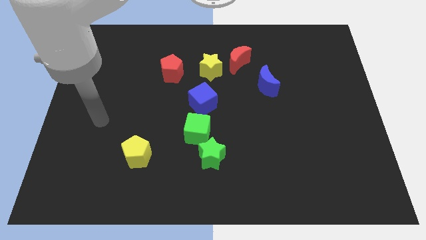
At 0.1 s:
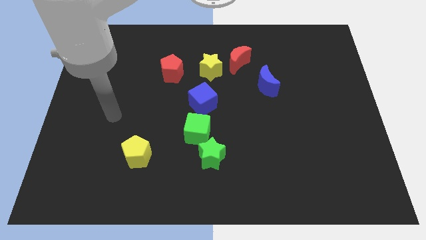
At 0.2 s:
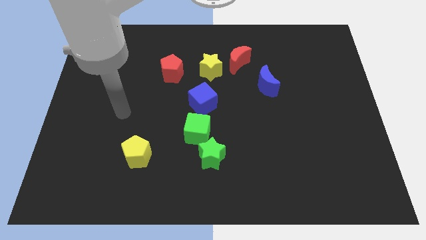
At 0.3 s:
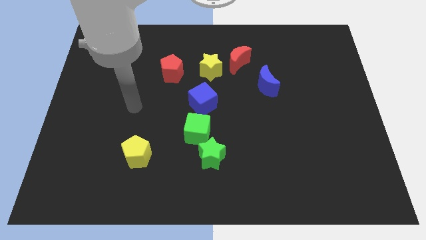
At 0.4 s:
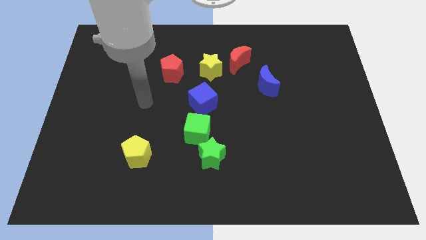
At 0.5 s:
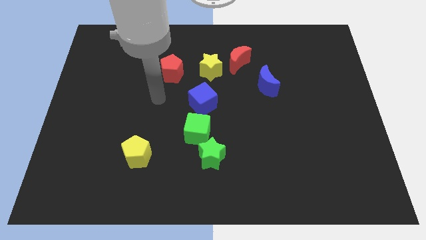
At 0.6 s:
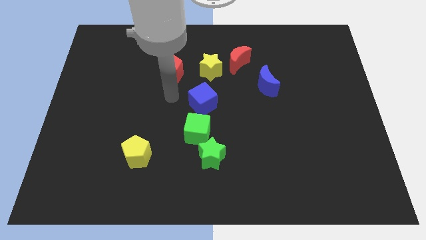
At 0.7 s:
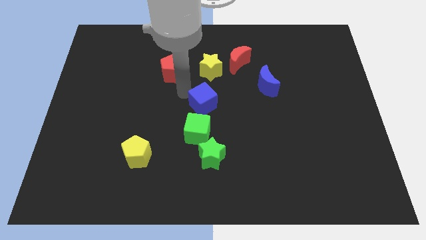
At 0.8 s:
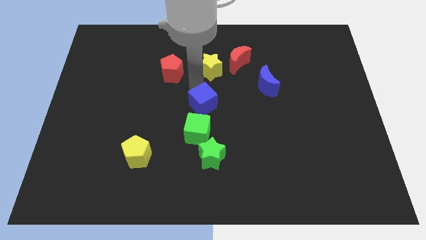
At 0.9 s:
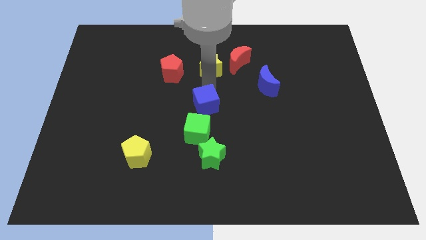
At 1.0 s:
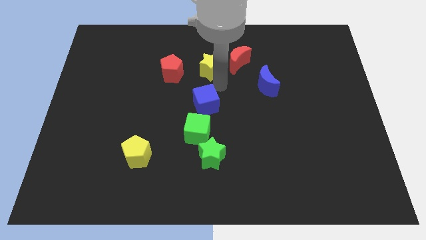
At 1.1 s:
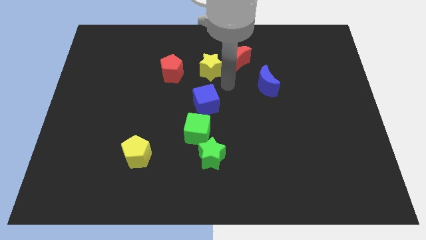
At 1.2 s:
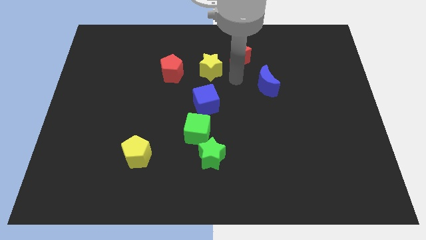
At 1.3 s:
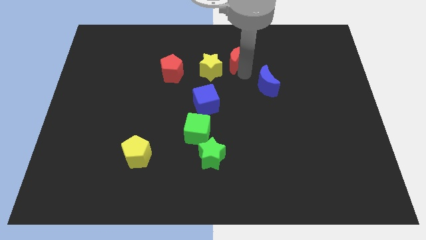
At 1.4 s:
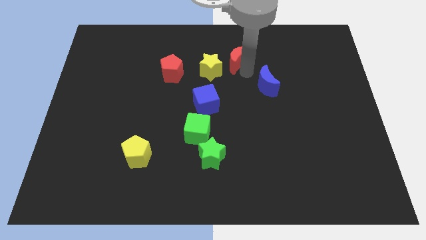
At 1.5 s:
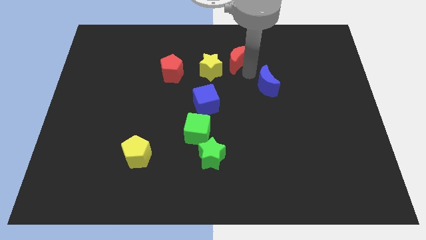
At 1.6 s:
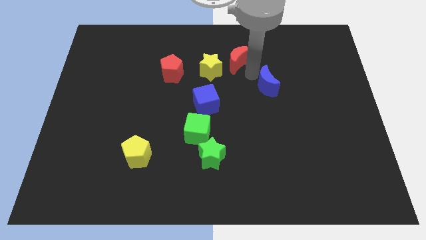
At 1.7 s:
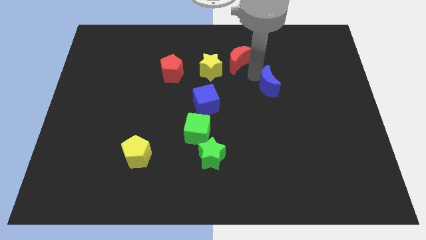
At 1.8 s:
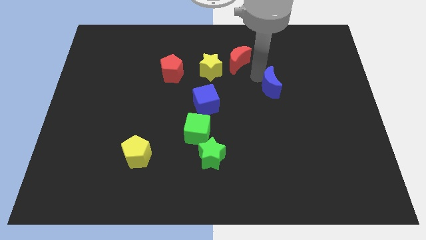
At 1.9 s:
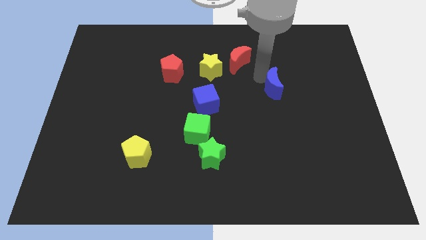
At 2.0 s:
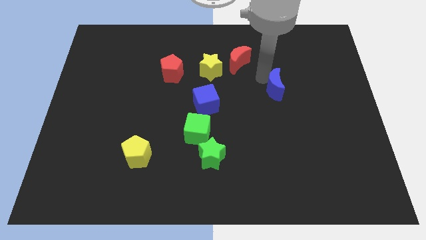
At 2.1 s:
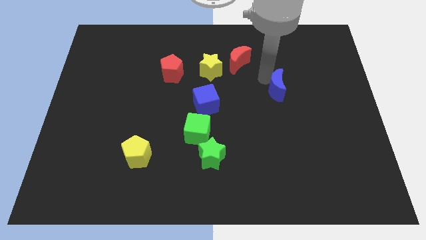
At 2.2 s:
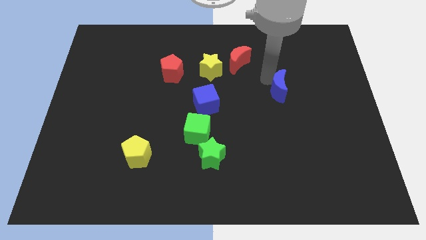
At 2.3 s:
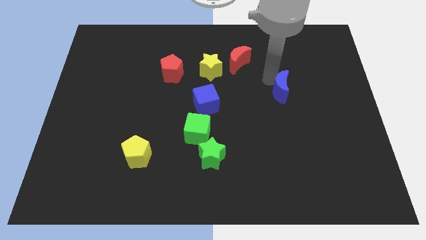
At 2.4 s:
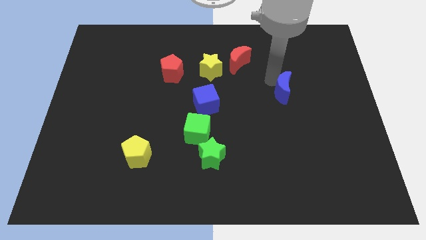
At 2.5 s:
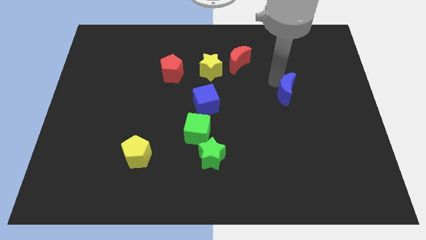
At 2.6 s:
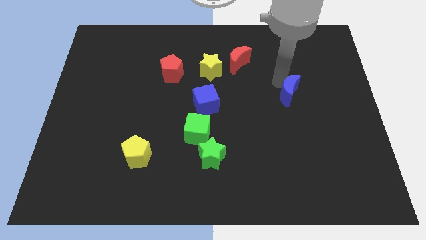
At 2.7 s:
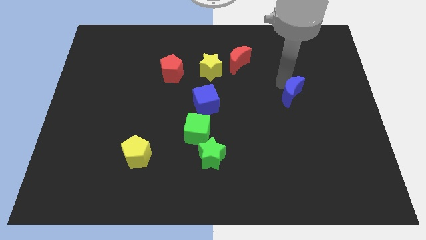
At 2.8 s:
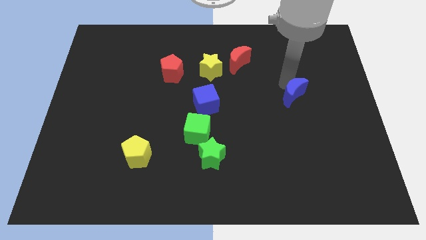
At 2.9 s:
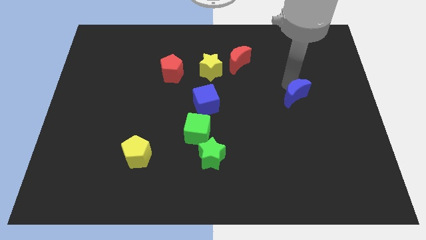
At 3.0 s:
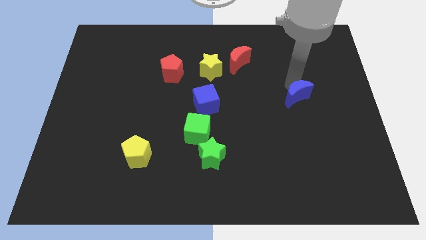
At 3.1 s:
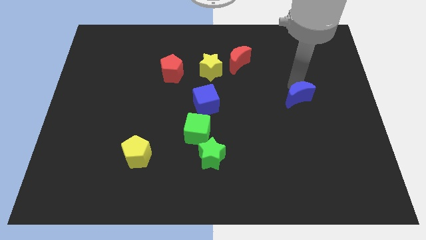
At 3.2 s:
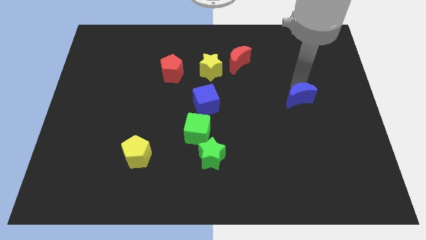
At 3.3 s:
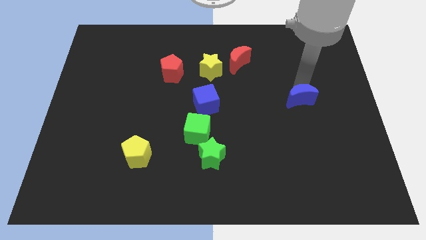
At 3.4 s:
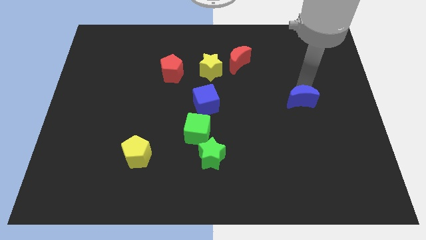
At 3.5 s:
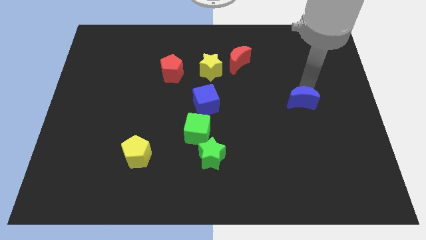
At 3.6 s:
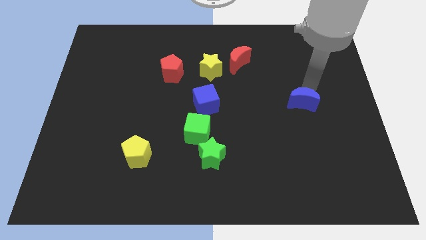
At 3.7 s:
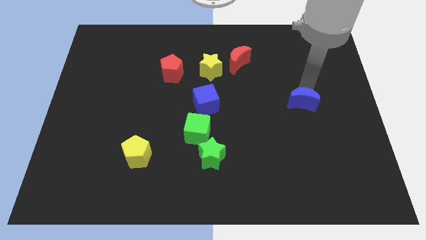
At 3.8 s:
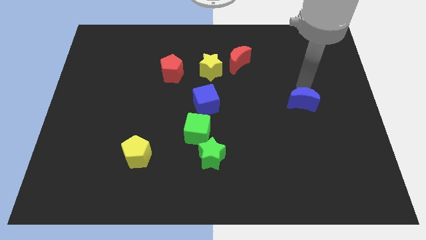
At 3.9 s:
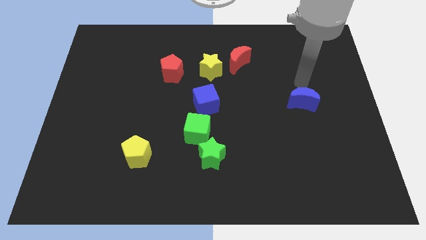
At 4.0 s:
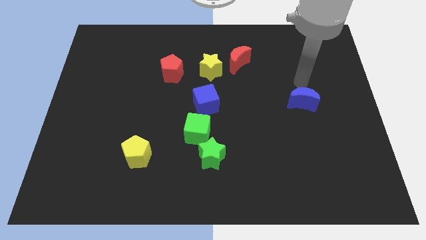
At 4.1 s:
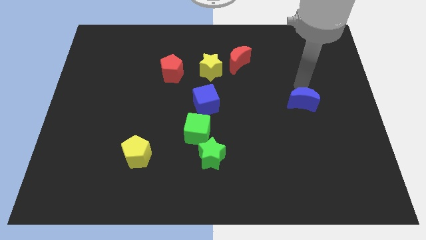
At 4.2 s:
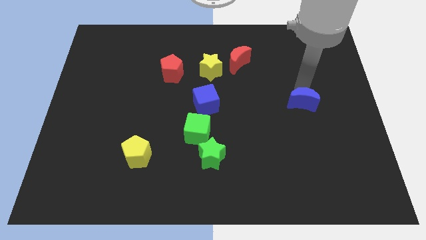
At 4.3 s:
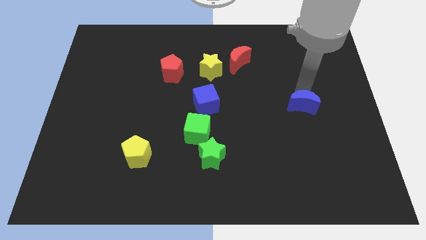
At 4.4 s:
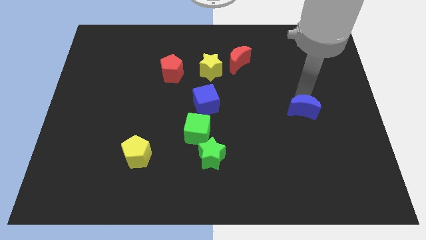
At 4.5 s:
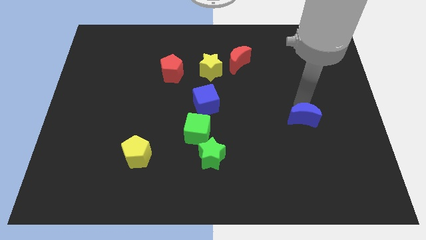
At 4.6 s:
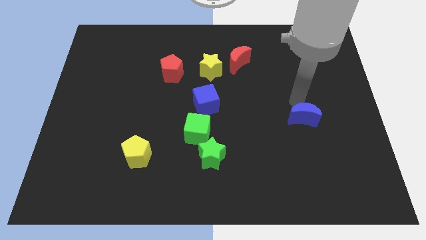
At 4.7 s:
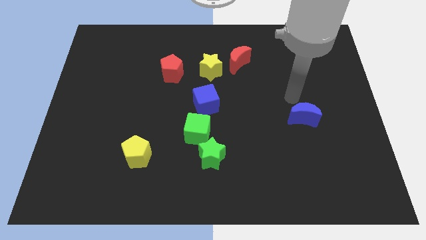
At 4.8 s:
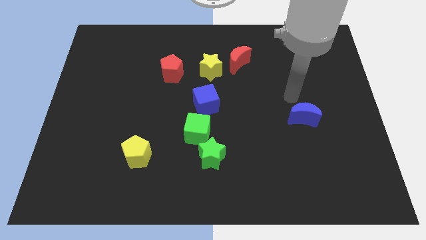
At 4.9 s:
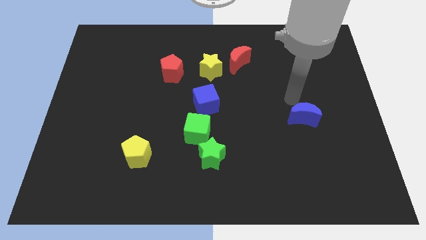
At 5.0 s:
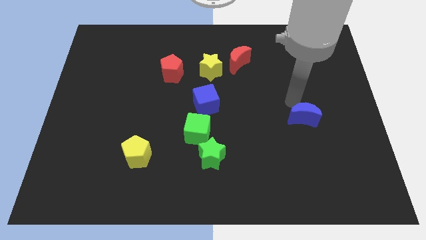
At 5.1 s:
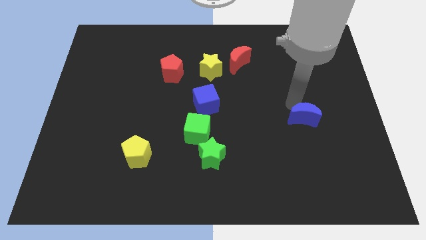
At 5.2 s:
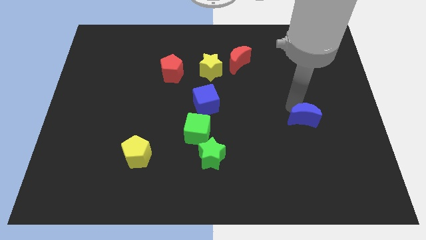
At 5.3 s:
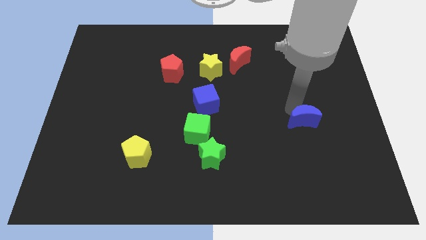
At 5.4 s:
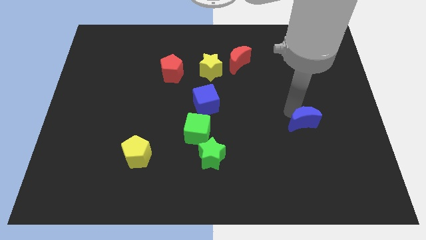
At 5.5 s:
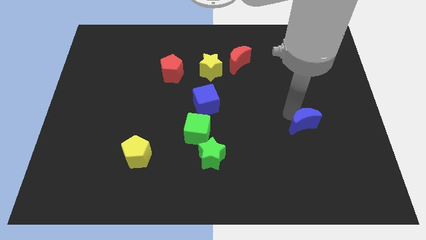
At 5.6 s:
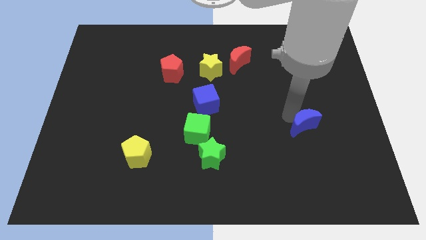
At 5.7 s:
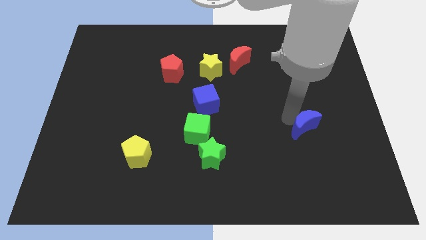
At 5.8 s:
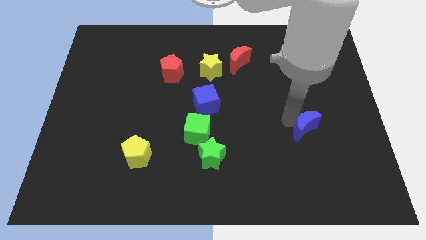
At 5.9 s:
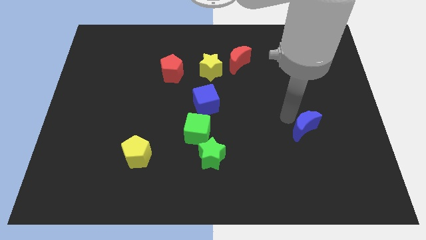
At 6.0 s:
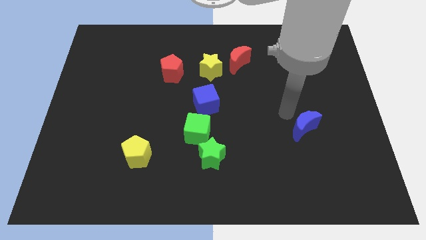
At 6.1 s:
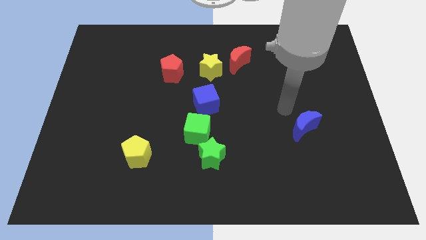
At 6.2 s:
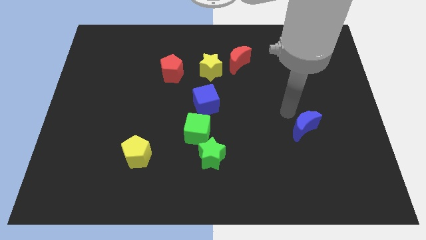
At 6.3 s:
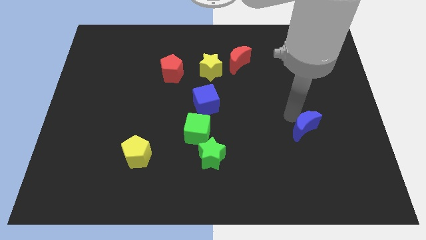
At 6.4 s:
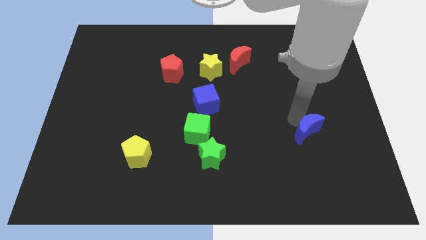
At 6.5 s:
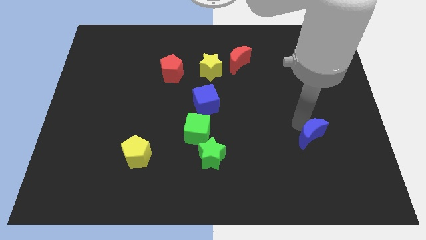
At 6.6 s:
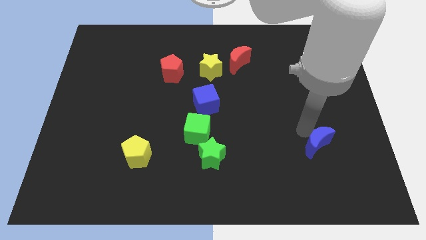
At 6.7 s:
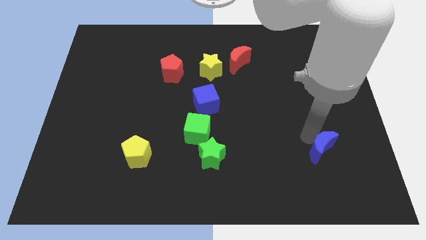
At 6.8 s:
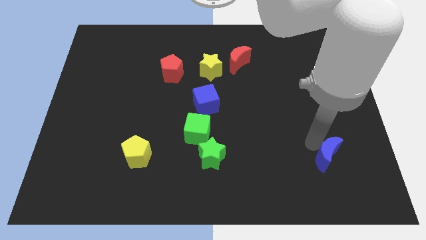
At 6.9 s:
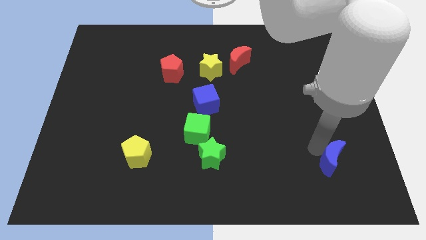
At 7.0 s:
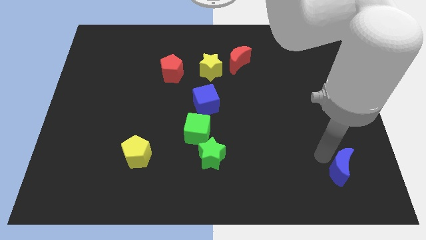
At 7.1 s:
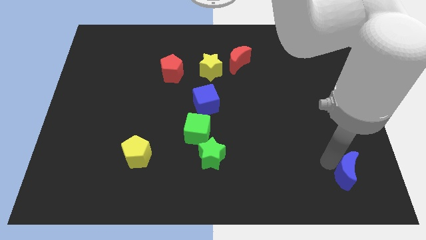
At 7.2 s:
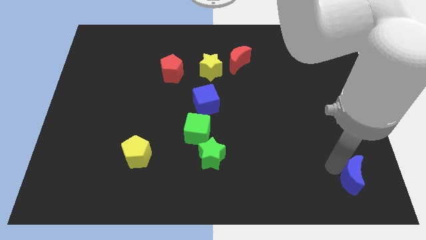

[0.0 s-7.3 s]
slide the blue moon to the bottom right

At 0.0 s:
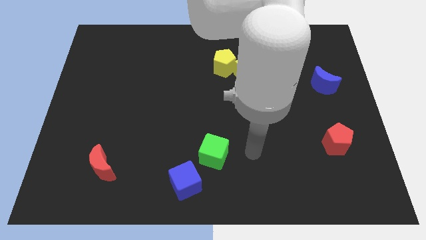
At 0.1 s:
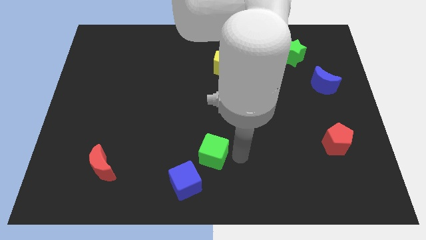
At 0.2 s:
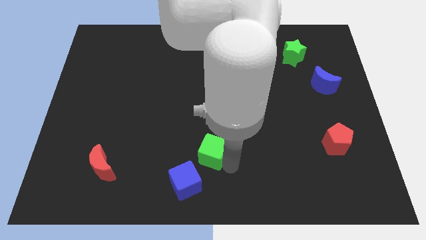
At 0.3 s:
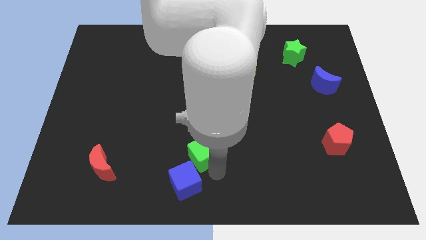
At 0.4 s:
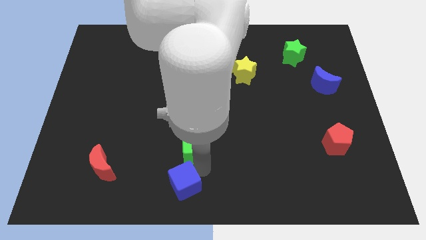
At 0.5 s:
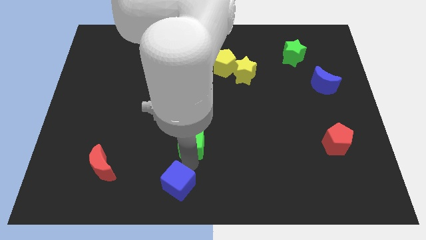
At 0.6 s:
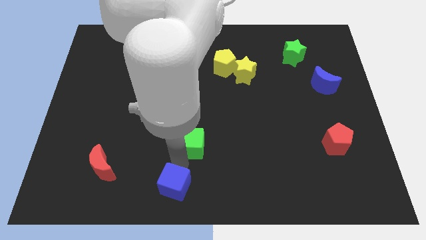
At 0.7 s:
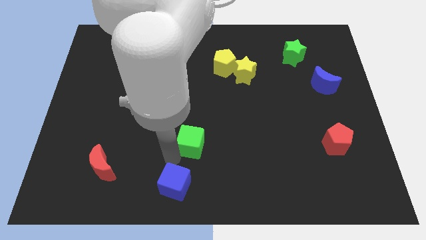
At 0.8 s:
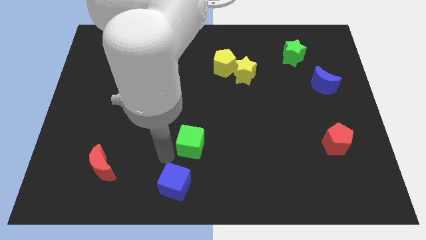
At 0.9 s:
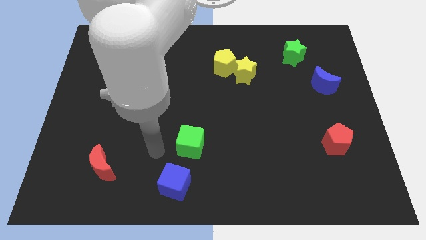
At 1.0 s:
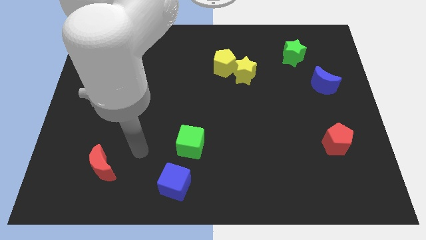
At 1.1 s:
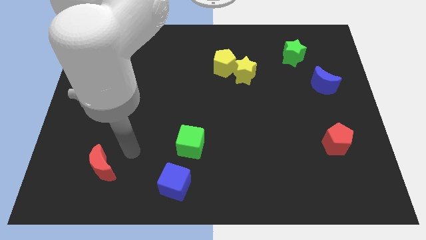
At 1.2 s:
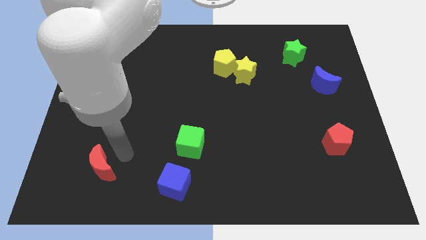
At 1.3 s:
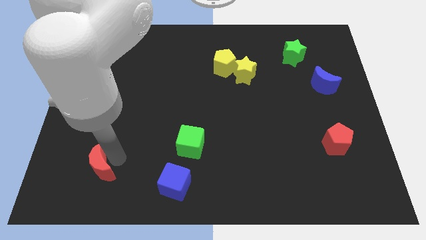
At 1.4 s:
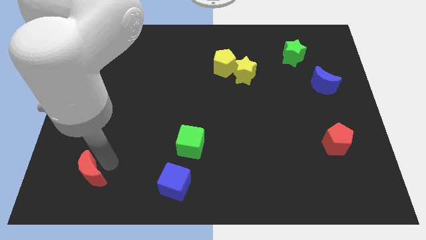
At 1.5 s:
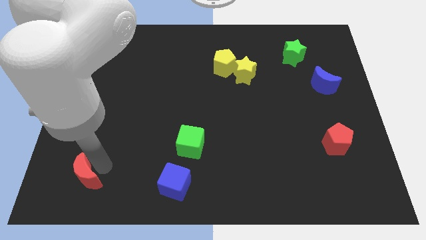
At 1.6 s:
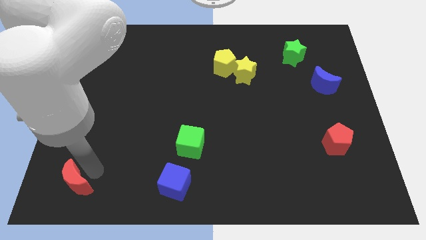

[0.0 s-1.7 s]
put the red moon to the bottom left
